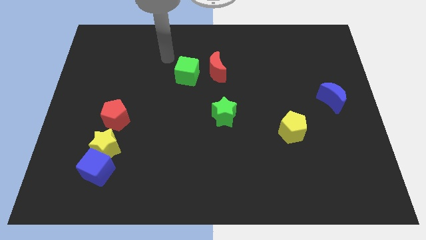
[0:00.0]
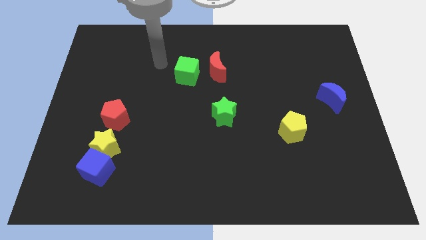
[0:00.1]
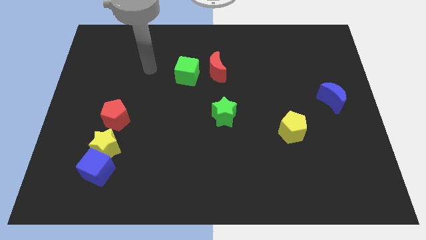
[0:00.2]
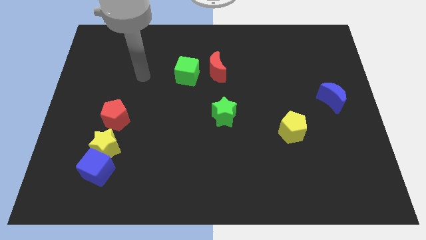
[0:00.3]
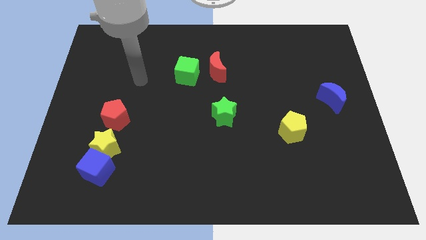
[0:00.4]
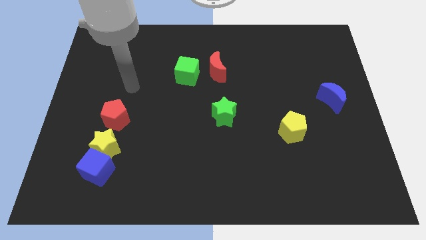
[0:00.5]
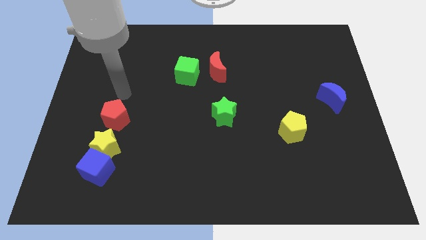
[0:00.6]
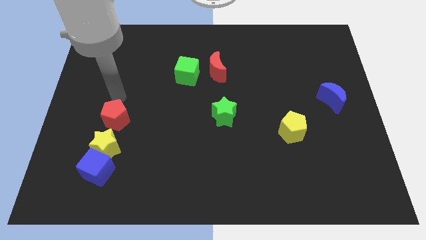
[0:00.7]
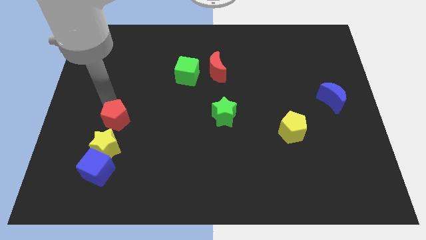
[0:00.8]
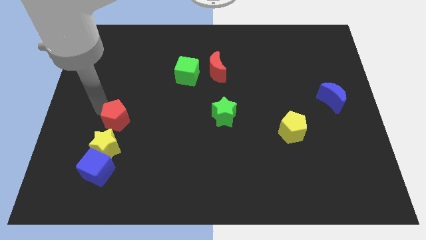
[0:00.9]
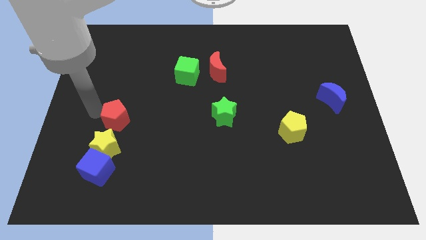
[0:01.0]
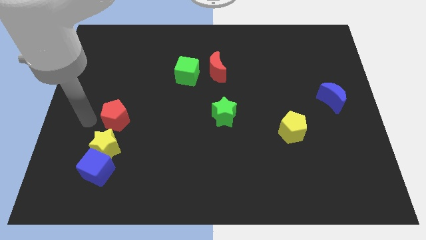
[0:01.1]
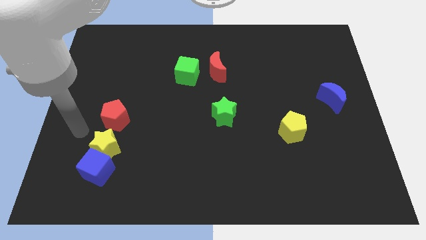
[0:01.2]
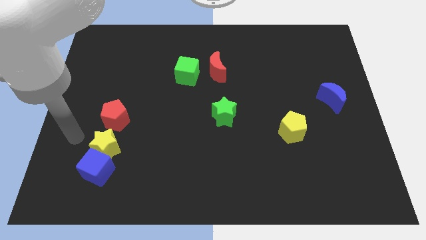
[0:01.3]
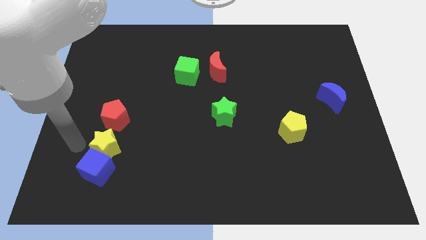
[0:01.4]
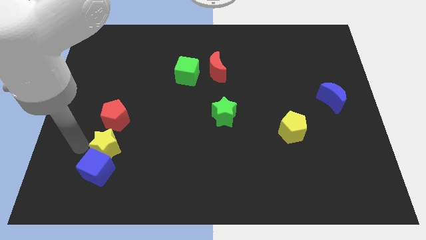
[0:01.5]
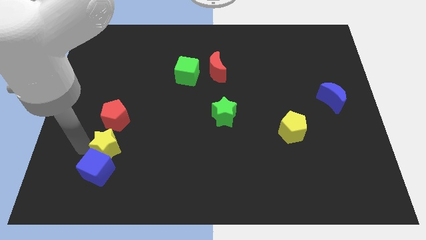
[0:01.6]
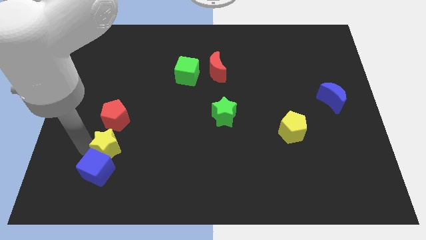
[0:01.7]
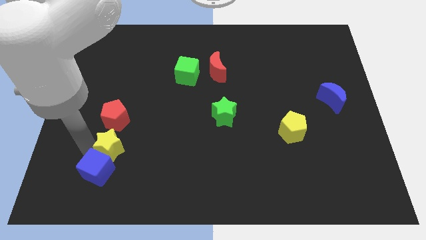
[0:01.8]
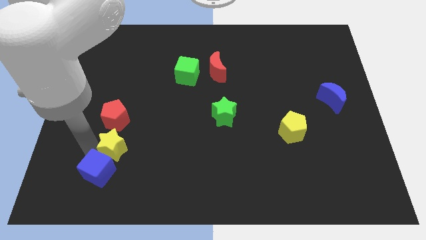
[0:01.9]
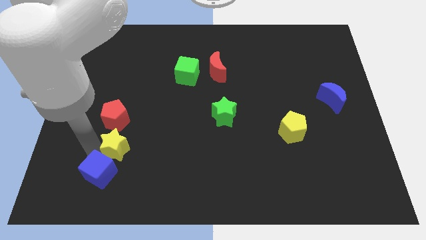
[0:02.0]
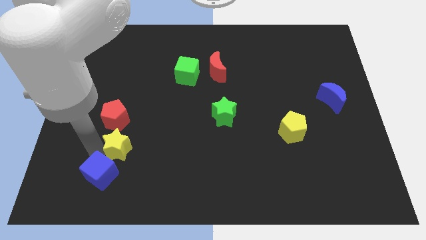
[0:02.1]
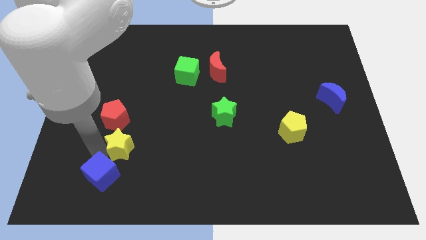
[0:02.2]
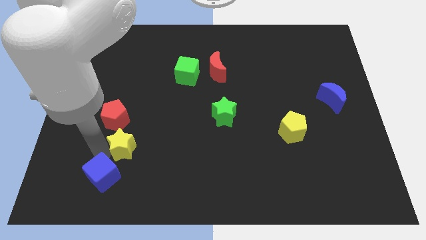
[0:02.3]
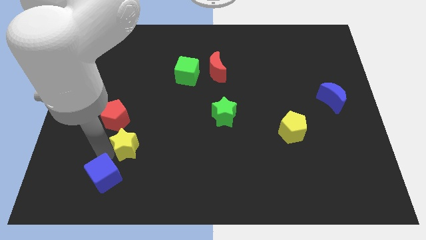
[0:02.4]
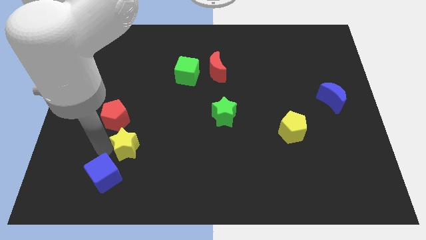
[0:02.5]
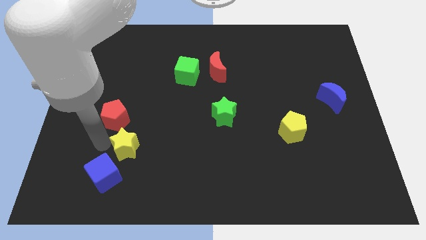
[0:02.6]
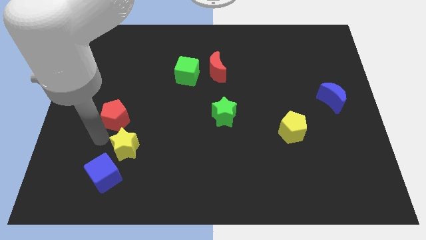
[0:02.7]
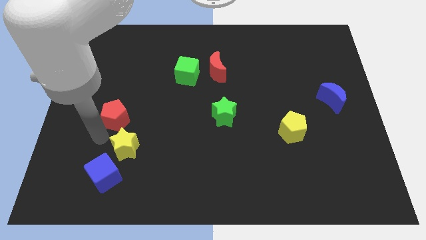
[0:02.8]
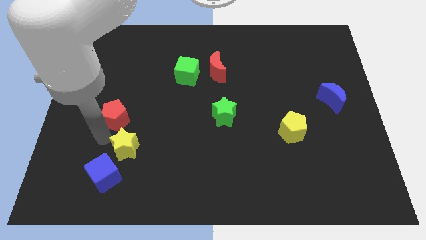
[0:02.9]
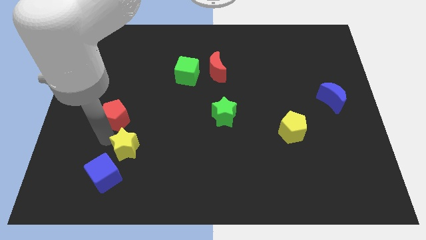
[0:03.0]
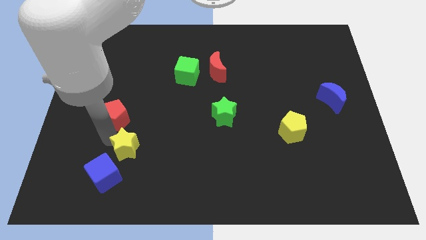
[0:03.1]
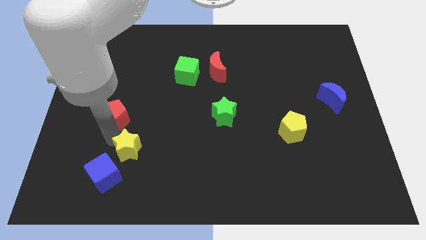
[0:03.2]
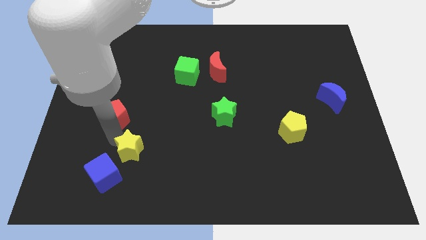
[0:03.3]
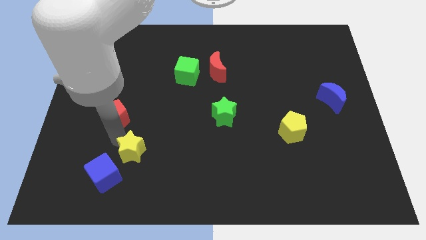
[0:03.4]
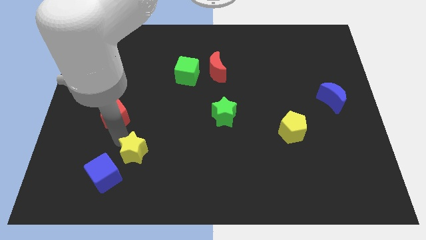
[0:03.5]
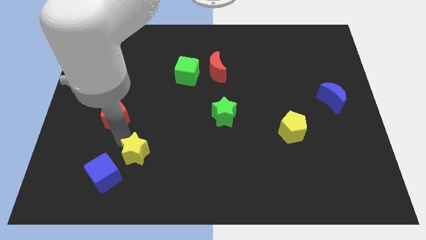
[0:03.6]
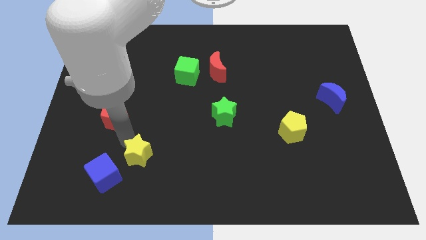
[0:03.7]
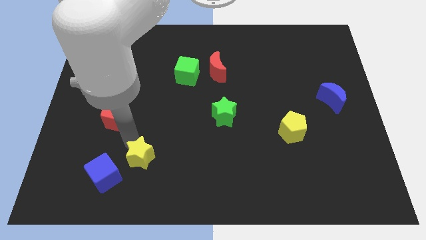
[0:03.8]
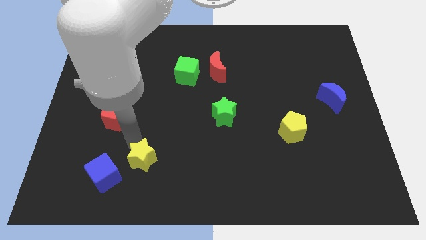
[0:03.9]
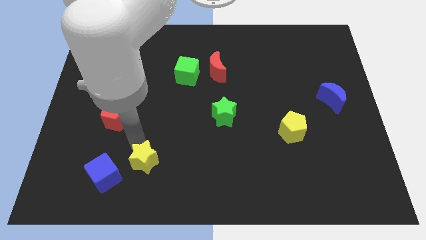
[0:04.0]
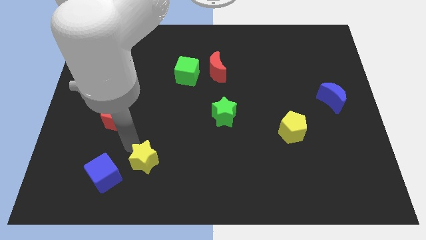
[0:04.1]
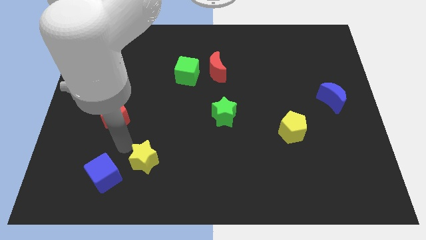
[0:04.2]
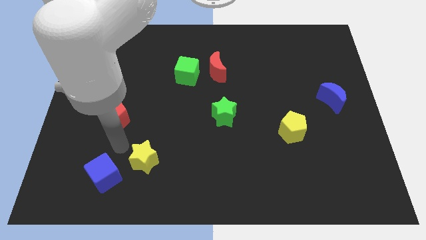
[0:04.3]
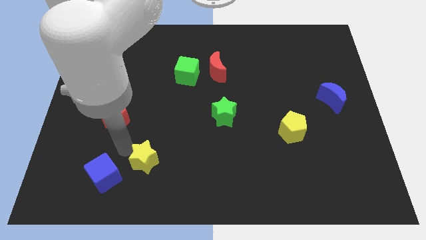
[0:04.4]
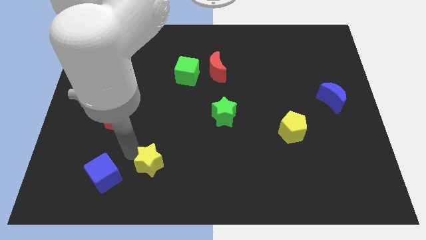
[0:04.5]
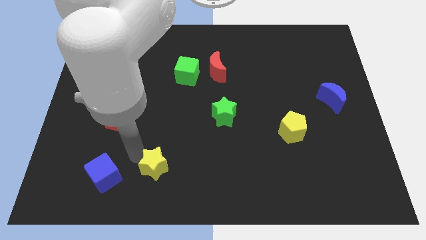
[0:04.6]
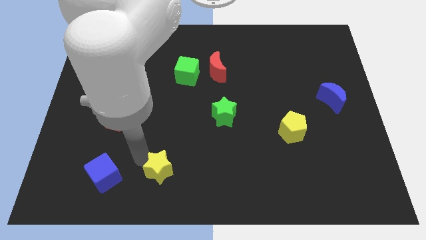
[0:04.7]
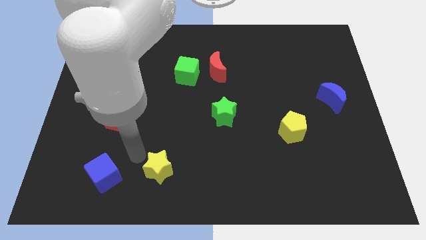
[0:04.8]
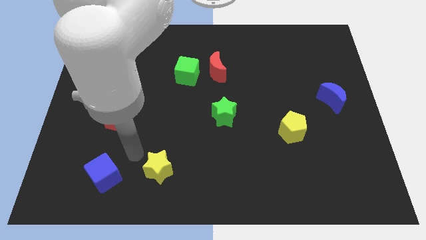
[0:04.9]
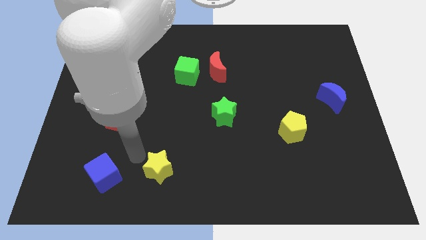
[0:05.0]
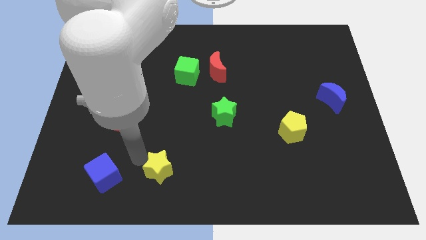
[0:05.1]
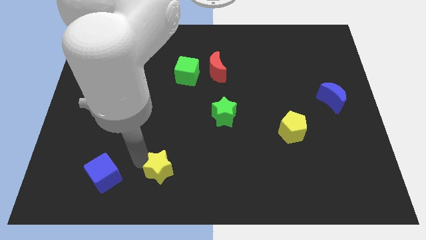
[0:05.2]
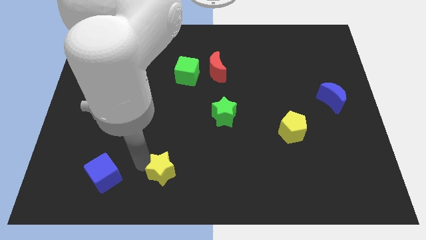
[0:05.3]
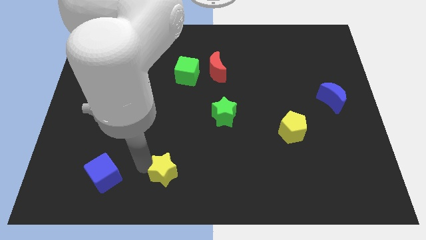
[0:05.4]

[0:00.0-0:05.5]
put the yellow star to the bottom

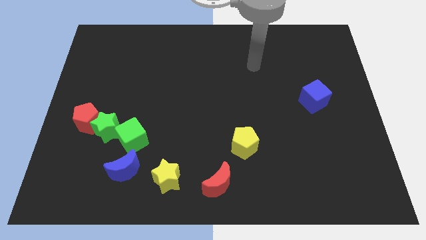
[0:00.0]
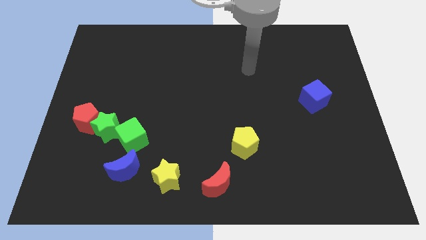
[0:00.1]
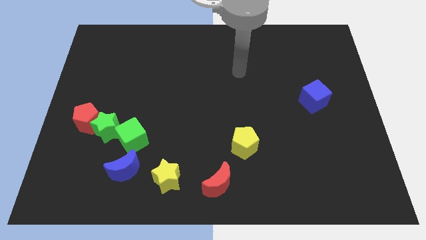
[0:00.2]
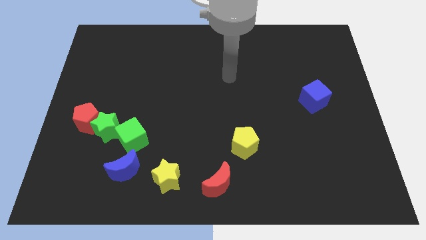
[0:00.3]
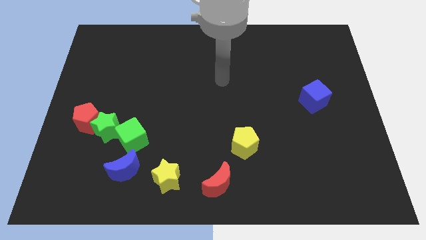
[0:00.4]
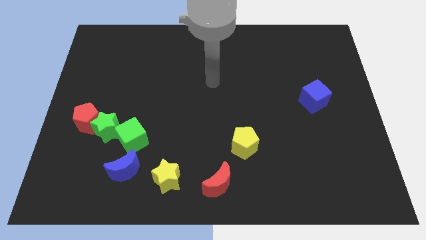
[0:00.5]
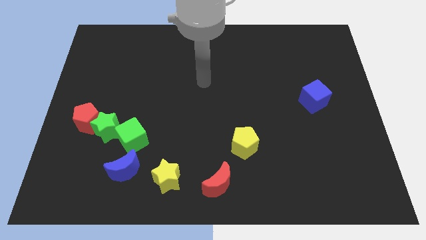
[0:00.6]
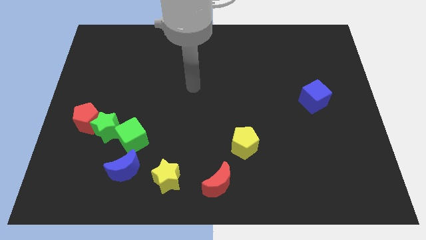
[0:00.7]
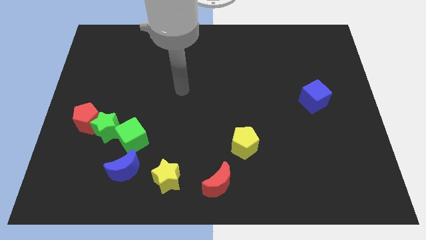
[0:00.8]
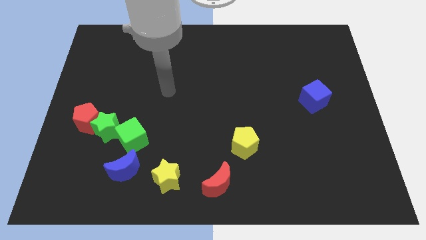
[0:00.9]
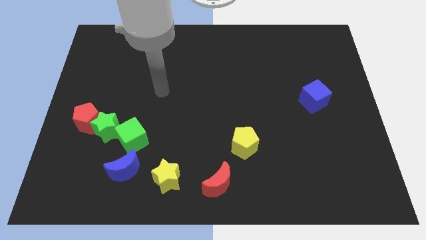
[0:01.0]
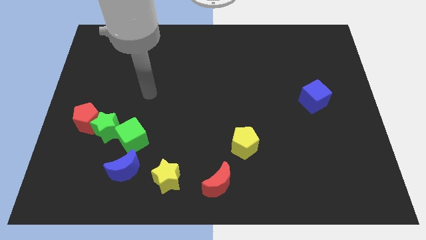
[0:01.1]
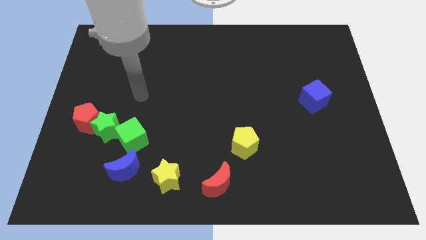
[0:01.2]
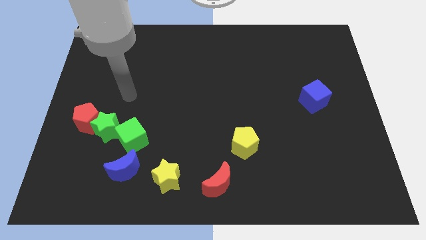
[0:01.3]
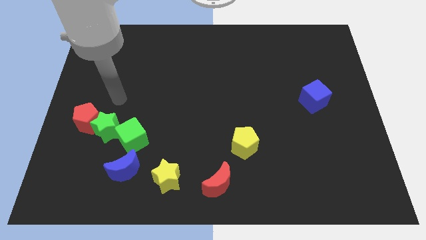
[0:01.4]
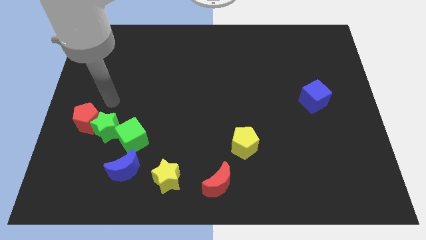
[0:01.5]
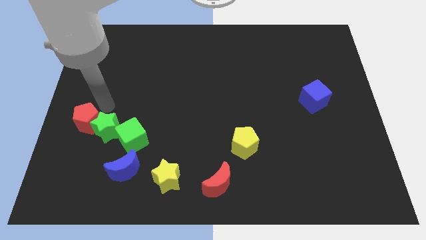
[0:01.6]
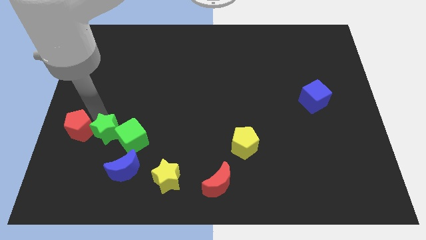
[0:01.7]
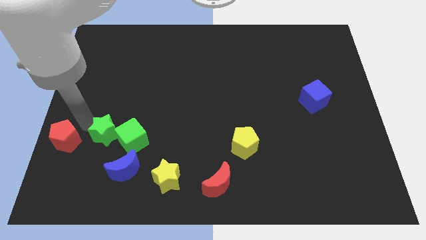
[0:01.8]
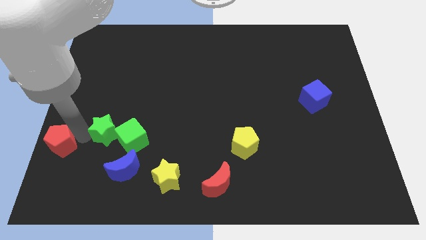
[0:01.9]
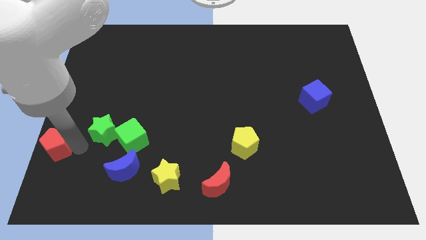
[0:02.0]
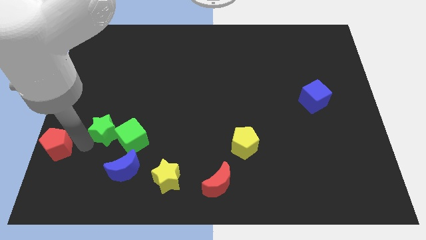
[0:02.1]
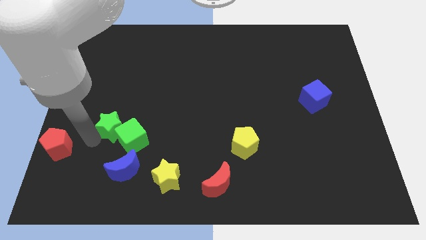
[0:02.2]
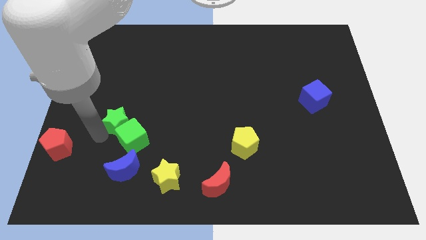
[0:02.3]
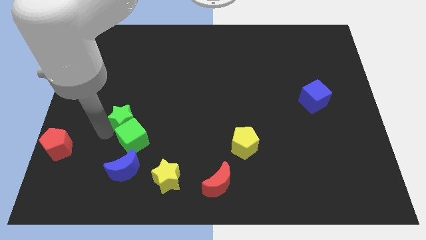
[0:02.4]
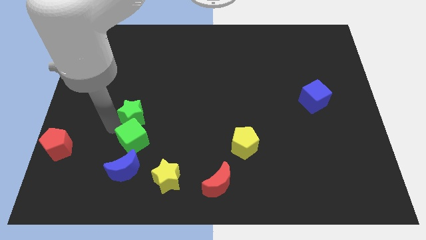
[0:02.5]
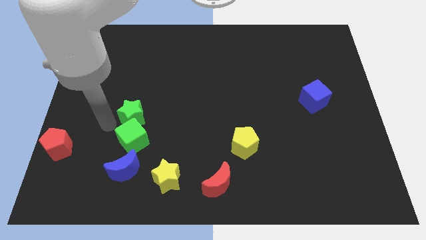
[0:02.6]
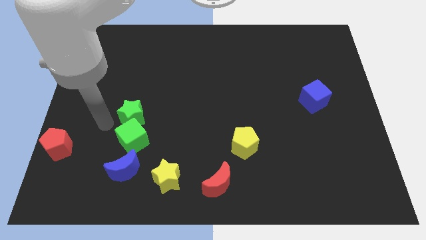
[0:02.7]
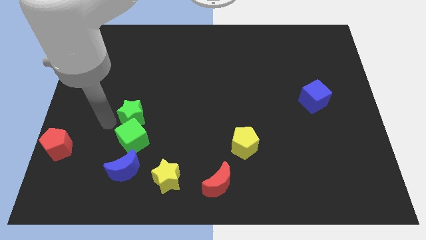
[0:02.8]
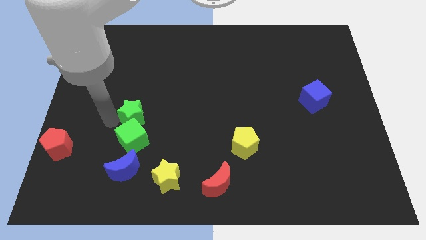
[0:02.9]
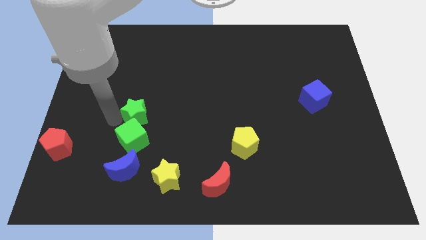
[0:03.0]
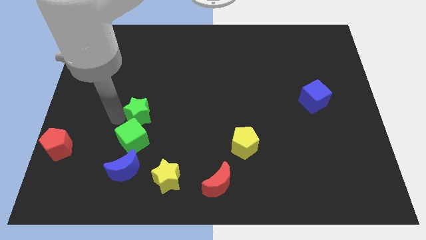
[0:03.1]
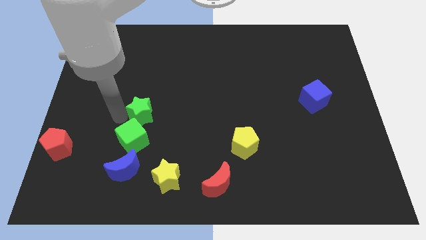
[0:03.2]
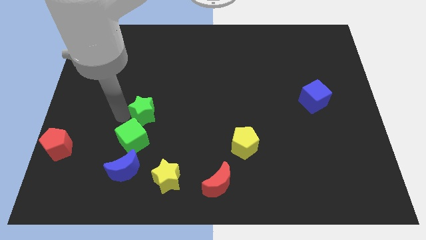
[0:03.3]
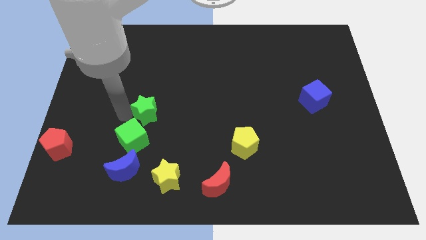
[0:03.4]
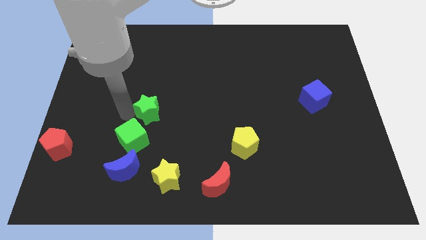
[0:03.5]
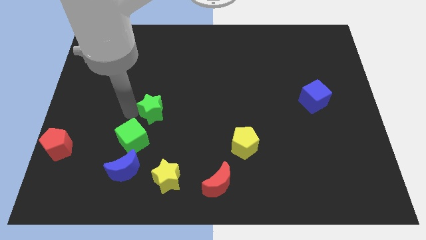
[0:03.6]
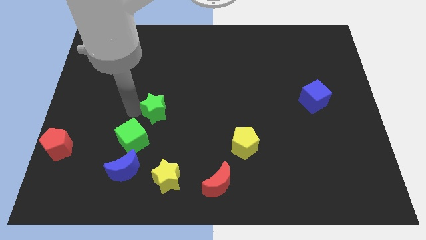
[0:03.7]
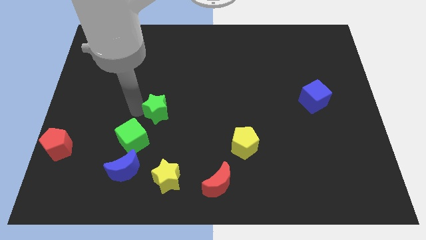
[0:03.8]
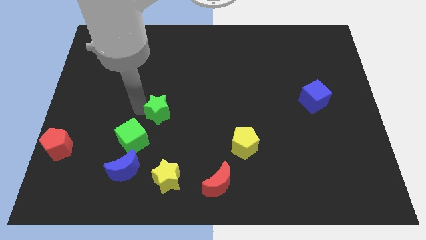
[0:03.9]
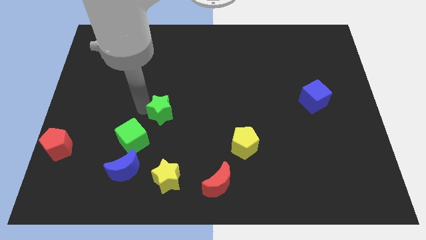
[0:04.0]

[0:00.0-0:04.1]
put the green star to the middle
